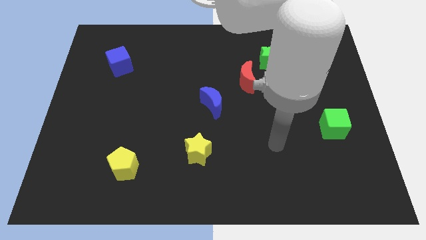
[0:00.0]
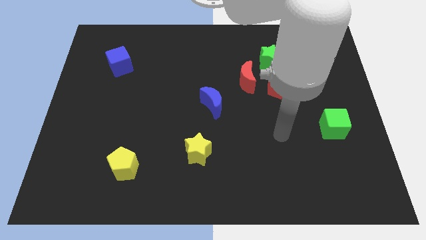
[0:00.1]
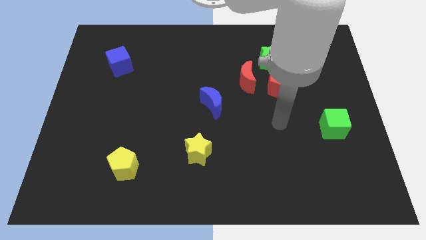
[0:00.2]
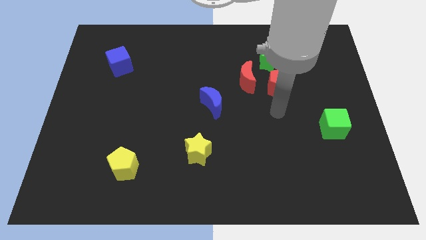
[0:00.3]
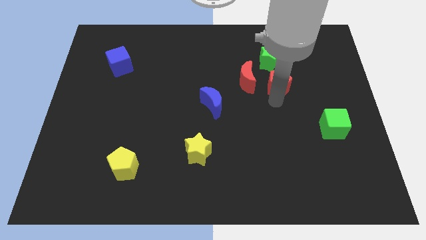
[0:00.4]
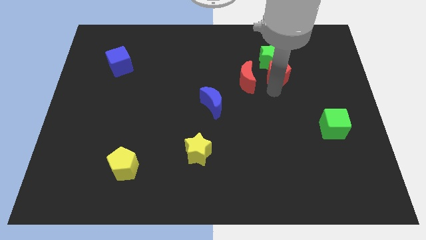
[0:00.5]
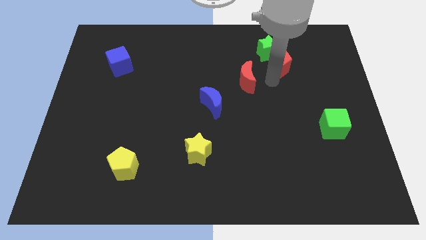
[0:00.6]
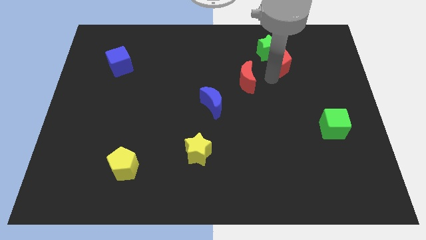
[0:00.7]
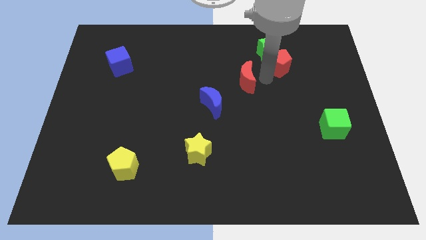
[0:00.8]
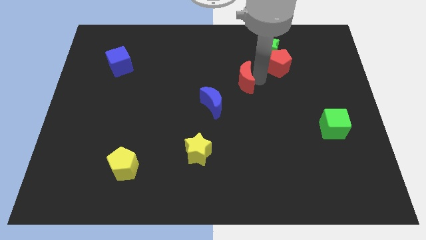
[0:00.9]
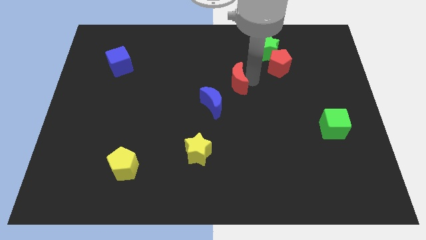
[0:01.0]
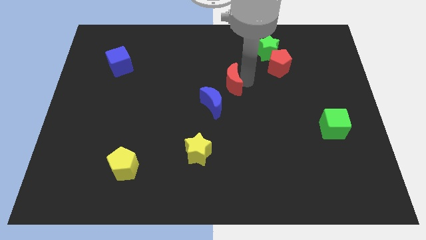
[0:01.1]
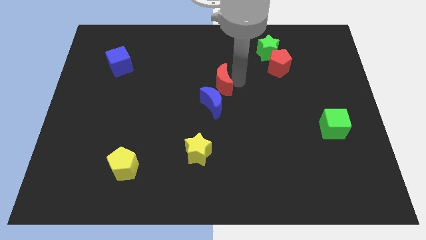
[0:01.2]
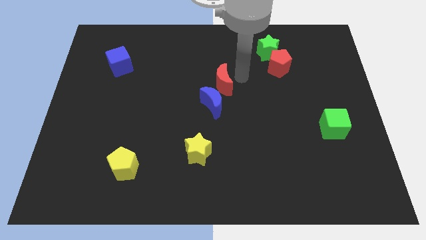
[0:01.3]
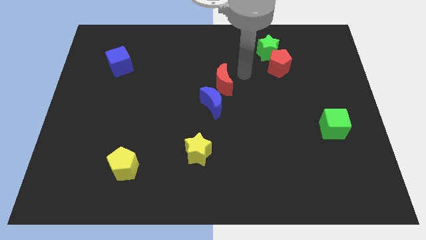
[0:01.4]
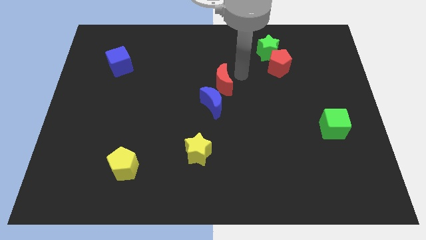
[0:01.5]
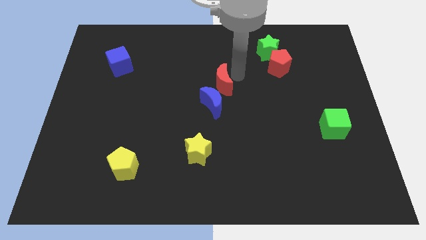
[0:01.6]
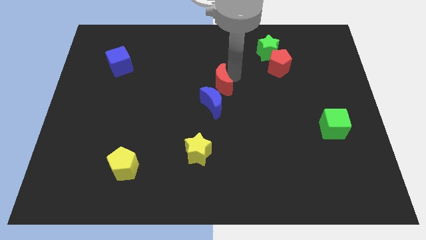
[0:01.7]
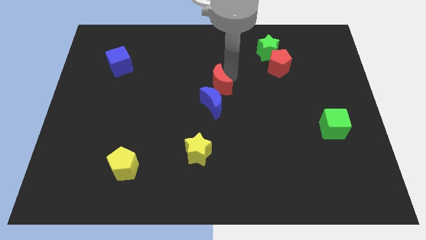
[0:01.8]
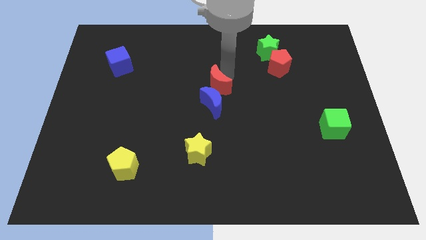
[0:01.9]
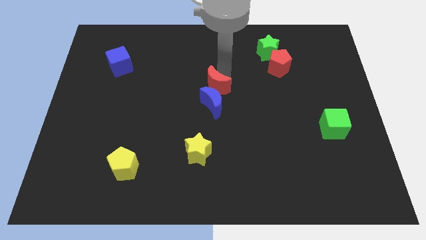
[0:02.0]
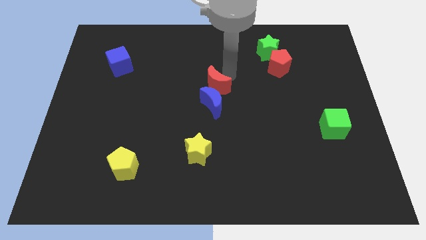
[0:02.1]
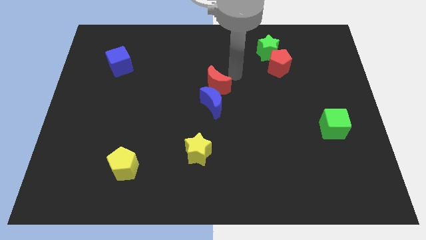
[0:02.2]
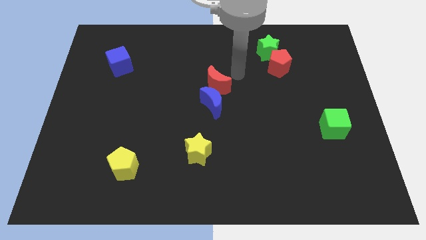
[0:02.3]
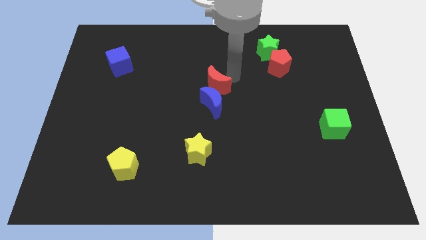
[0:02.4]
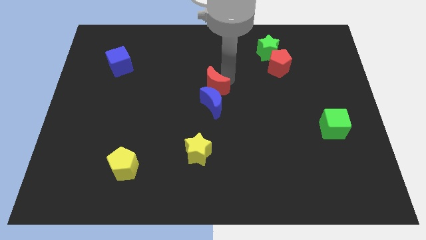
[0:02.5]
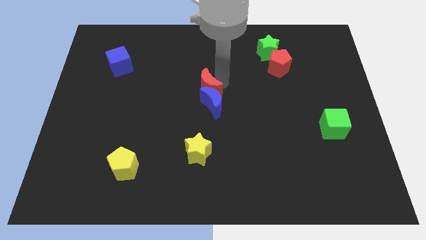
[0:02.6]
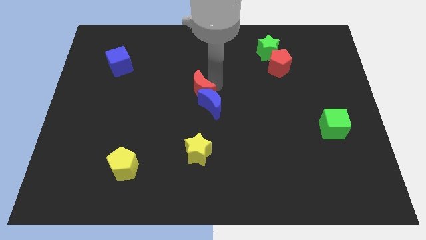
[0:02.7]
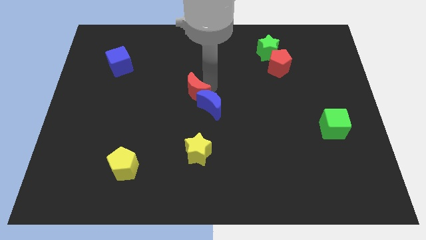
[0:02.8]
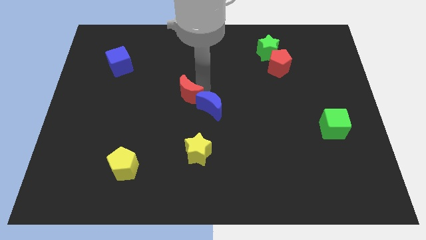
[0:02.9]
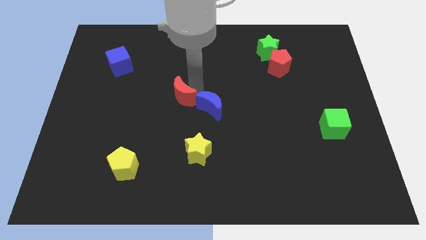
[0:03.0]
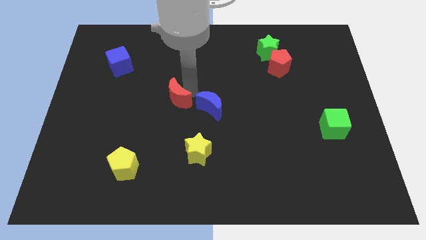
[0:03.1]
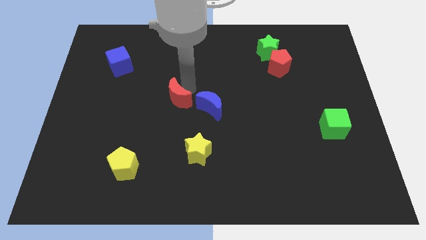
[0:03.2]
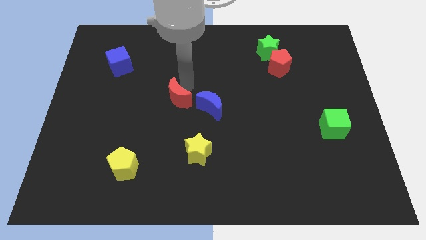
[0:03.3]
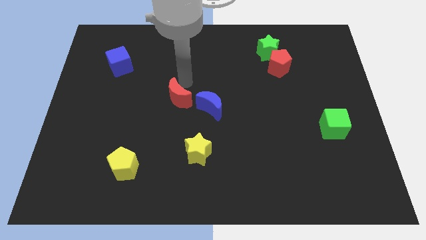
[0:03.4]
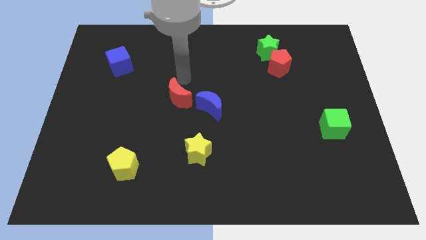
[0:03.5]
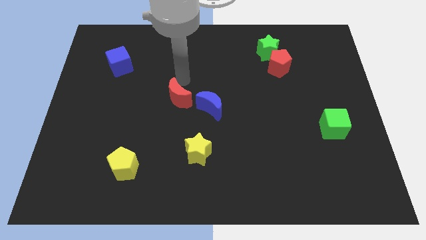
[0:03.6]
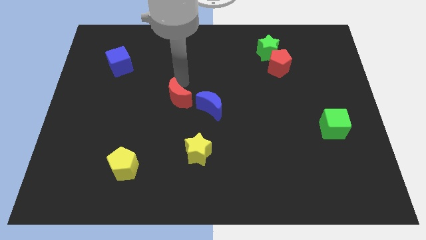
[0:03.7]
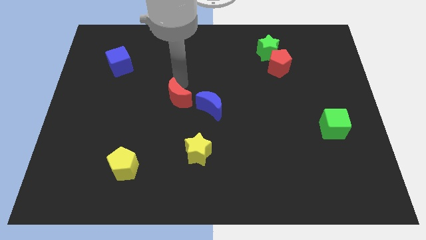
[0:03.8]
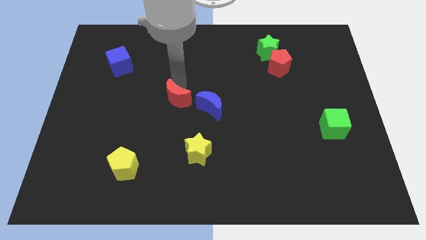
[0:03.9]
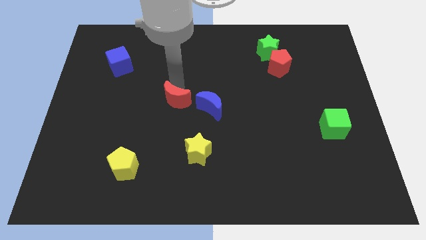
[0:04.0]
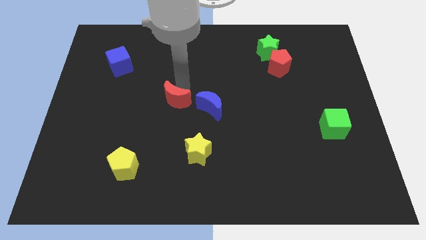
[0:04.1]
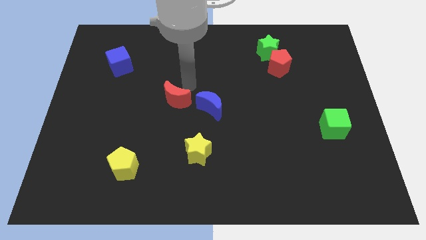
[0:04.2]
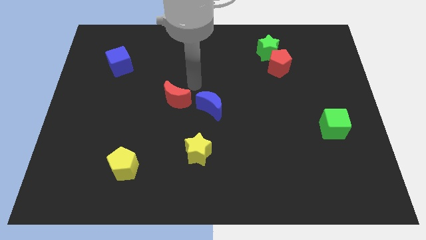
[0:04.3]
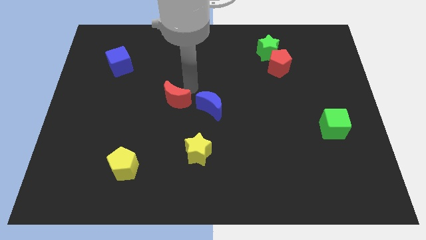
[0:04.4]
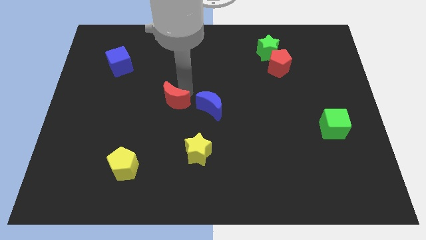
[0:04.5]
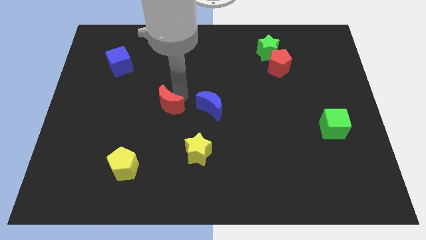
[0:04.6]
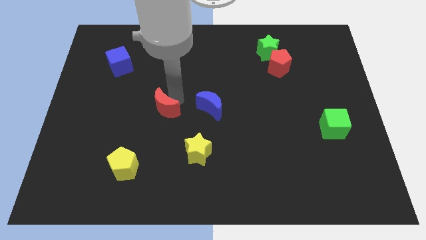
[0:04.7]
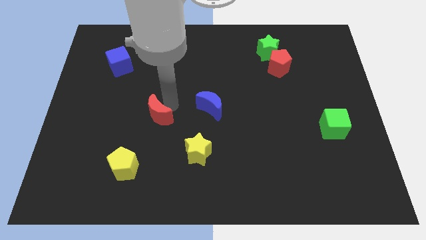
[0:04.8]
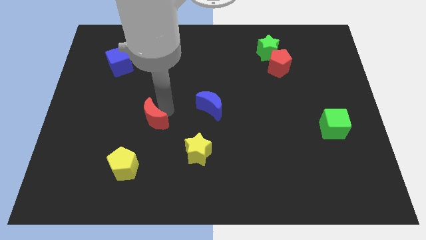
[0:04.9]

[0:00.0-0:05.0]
move the red moon to the top of the yellow pentagon

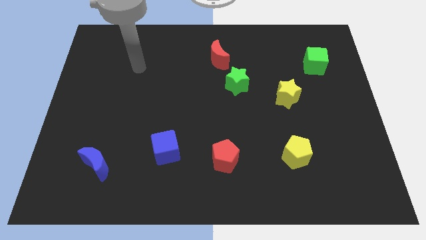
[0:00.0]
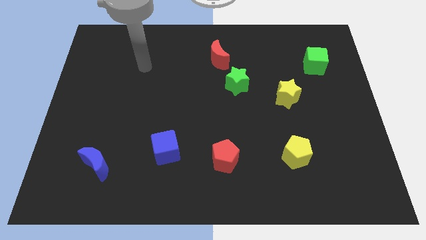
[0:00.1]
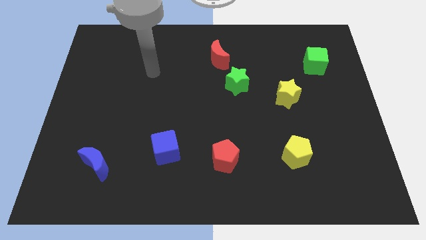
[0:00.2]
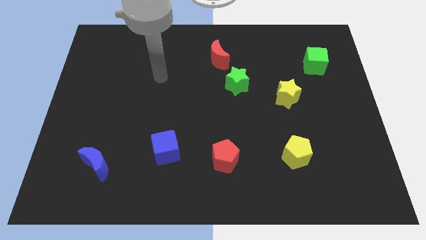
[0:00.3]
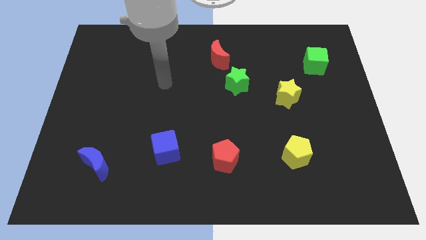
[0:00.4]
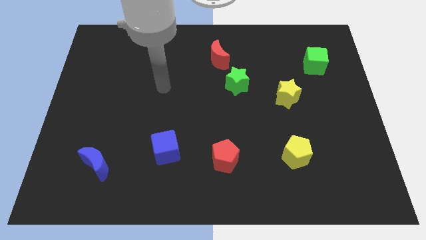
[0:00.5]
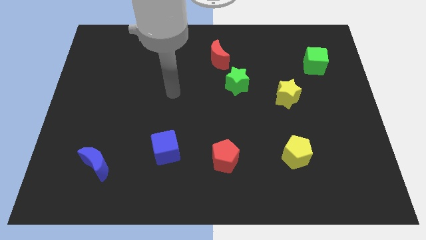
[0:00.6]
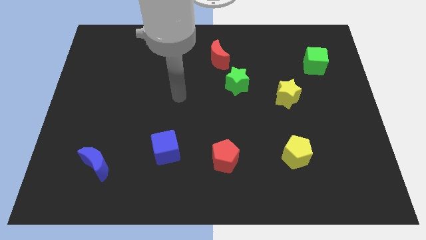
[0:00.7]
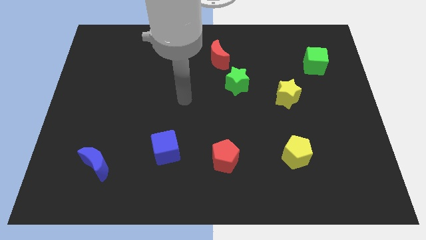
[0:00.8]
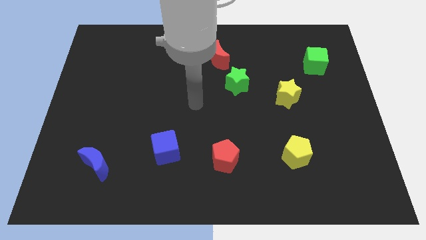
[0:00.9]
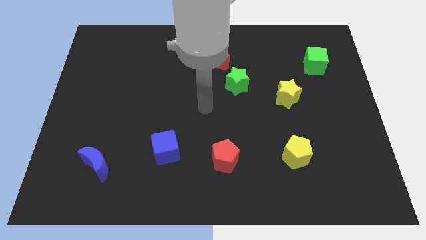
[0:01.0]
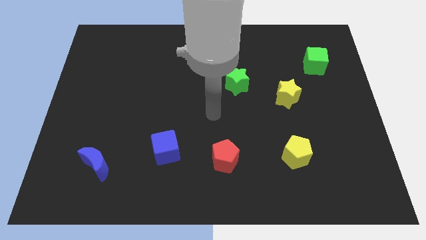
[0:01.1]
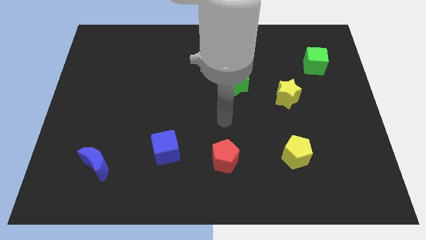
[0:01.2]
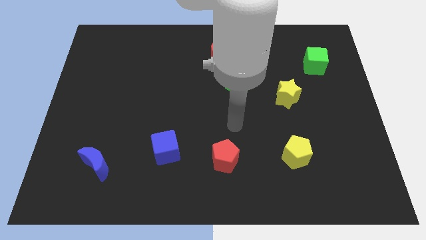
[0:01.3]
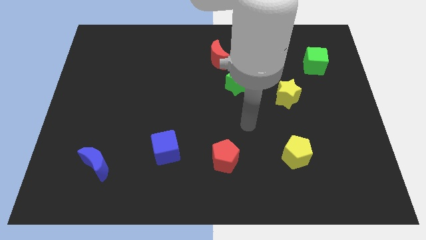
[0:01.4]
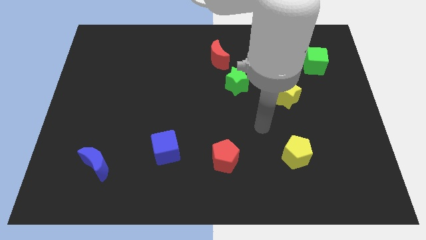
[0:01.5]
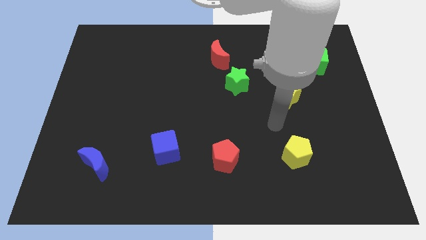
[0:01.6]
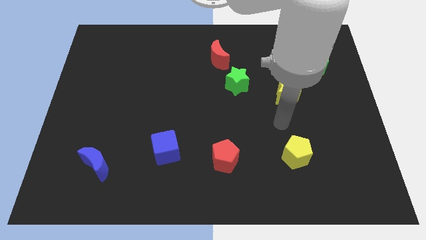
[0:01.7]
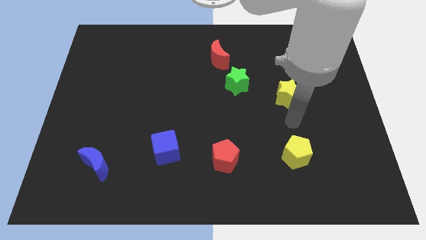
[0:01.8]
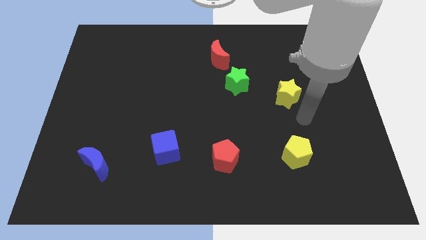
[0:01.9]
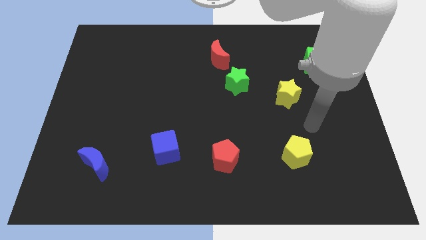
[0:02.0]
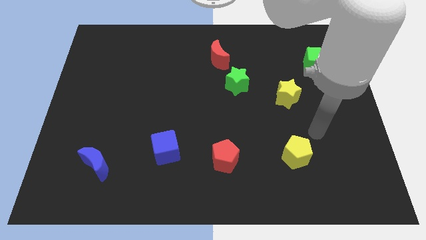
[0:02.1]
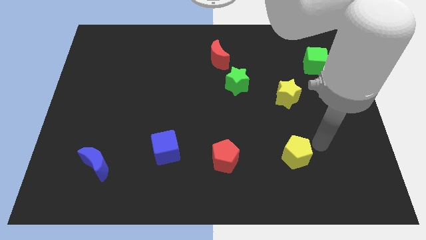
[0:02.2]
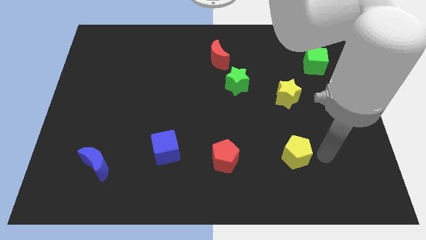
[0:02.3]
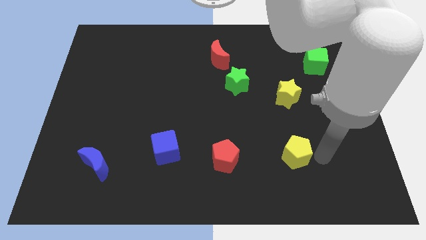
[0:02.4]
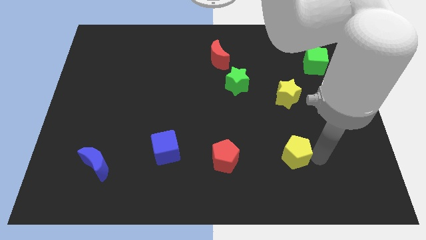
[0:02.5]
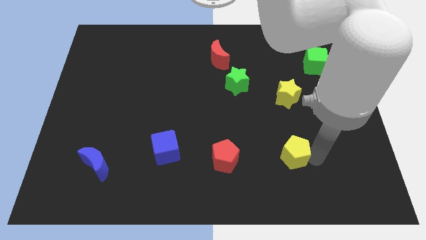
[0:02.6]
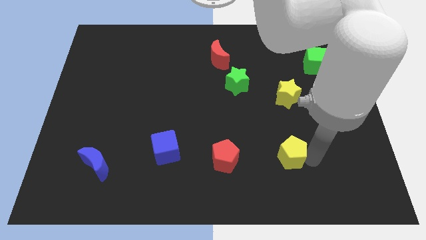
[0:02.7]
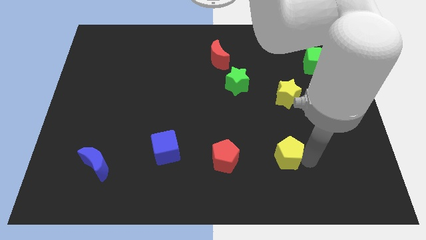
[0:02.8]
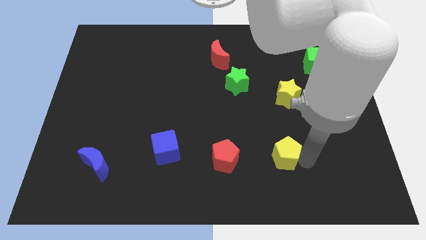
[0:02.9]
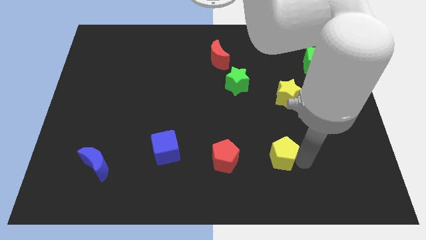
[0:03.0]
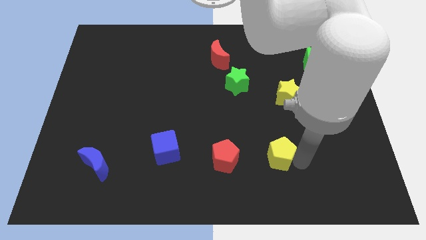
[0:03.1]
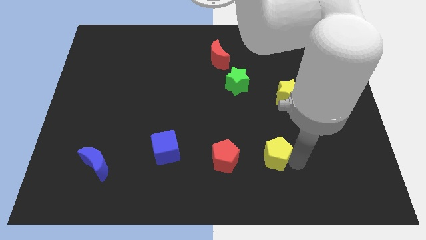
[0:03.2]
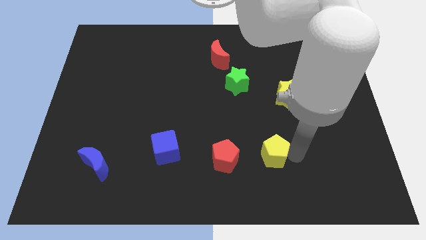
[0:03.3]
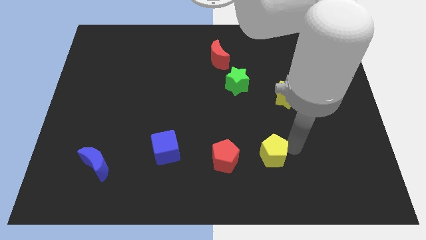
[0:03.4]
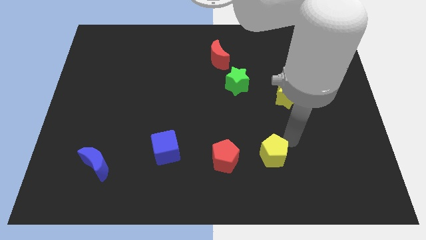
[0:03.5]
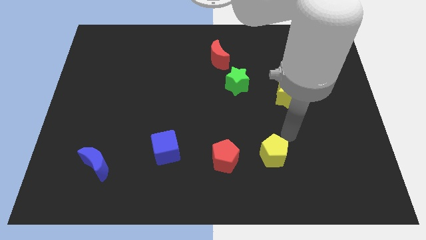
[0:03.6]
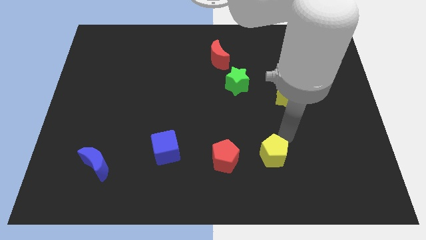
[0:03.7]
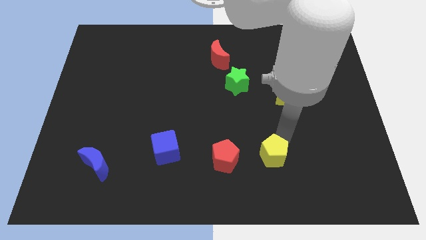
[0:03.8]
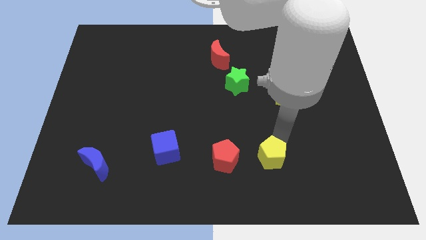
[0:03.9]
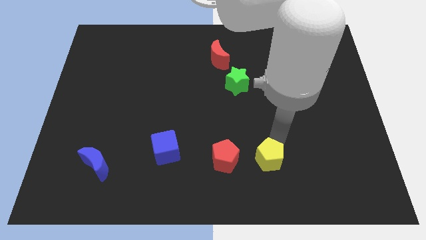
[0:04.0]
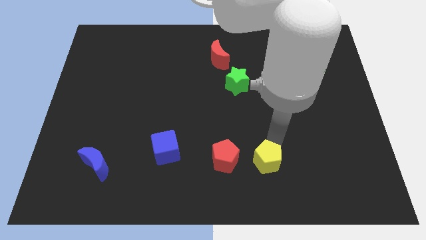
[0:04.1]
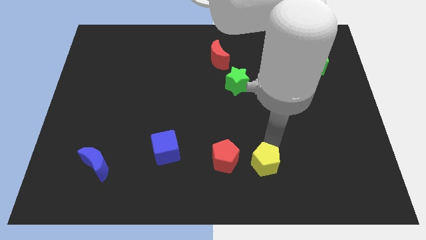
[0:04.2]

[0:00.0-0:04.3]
push the yellow pentagon to the bottom right side of the red pentagon
